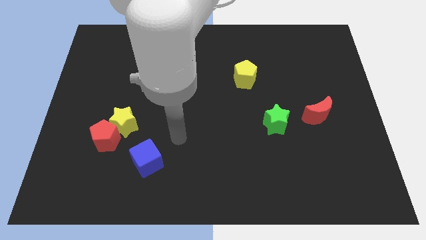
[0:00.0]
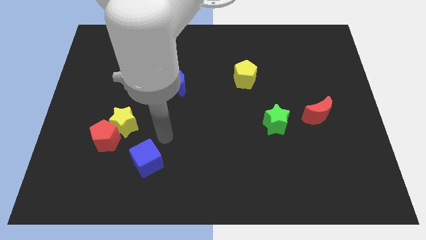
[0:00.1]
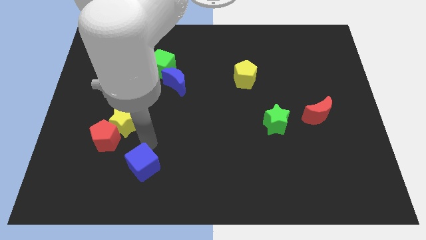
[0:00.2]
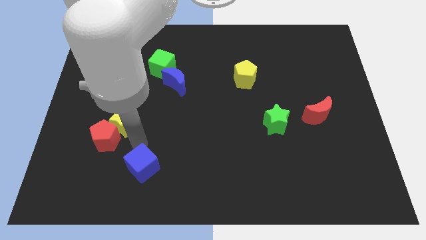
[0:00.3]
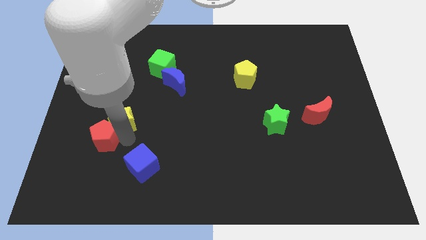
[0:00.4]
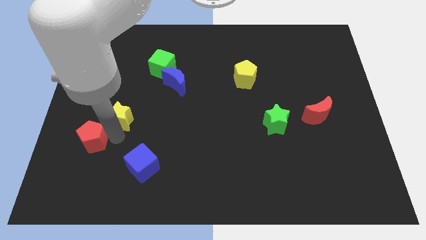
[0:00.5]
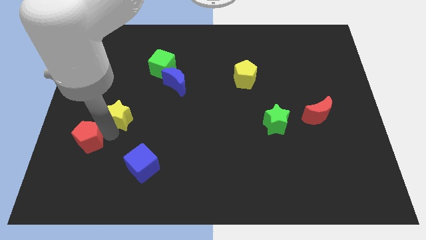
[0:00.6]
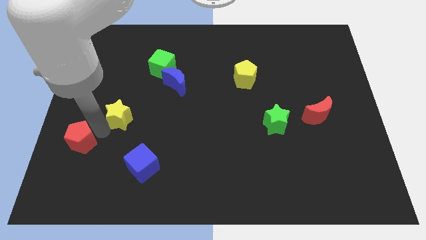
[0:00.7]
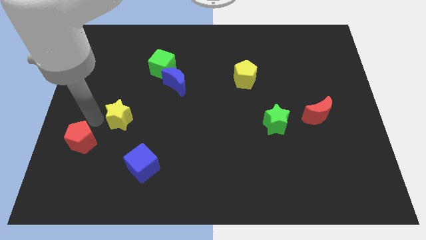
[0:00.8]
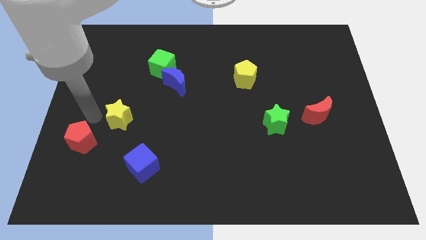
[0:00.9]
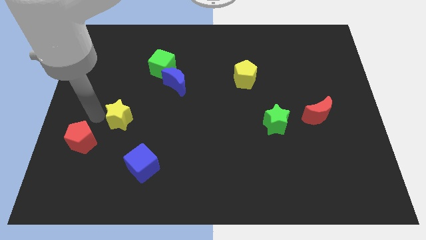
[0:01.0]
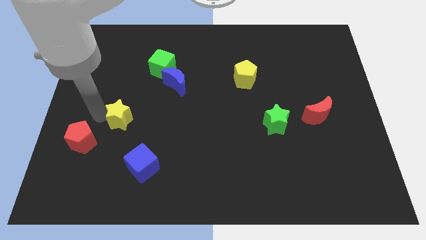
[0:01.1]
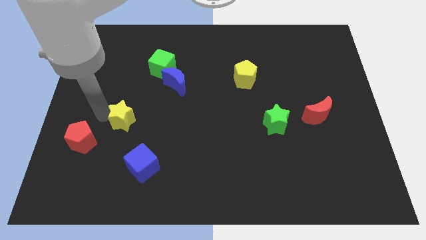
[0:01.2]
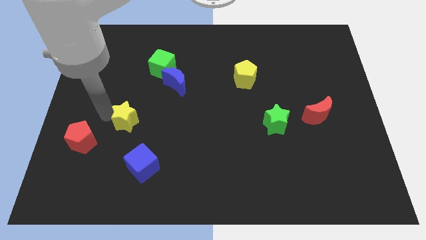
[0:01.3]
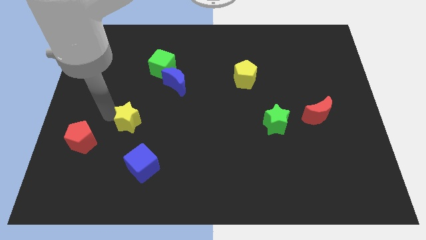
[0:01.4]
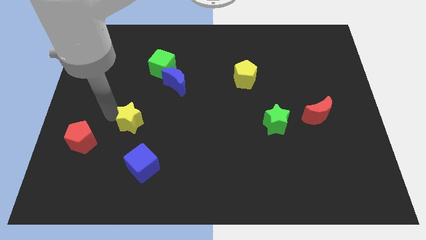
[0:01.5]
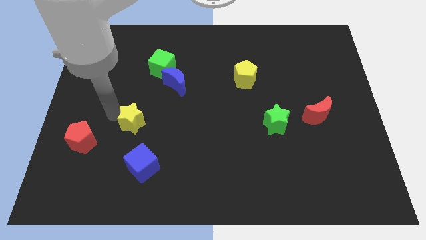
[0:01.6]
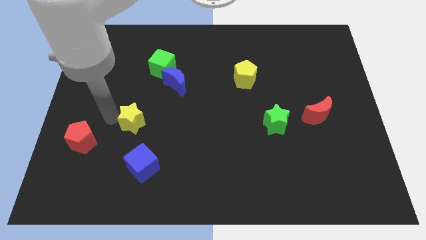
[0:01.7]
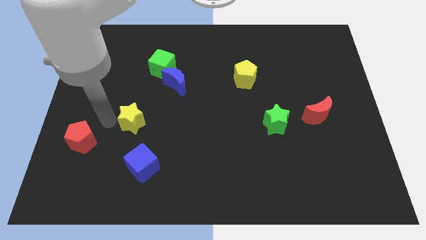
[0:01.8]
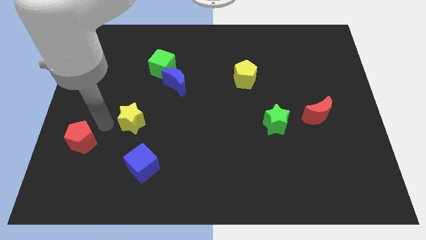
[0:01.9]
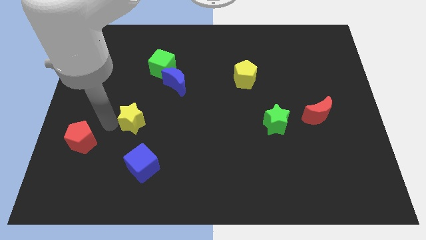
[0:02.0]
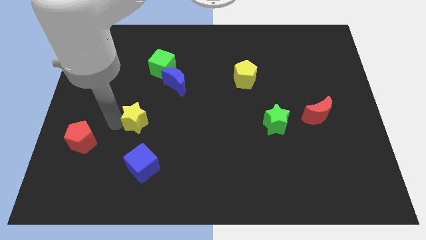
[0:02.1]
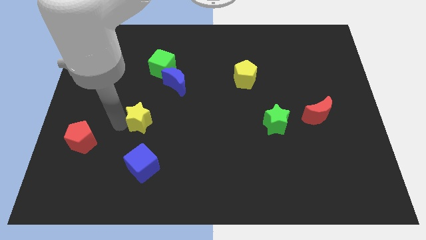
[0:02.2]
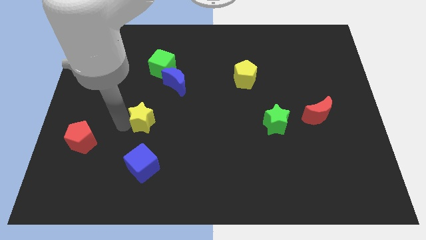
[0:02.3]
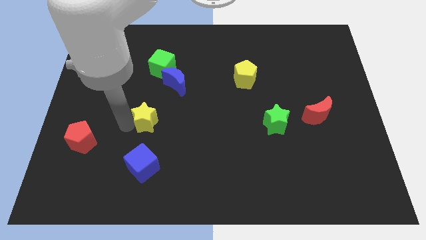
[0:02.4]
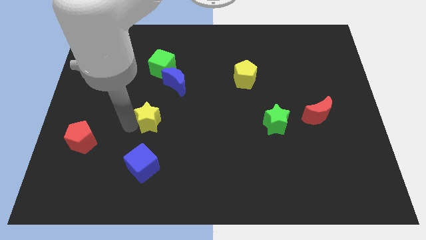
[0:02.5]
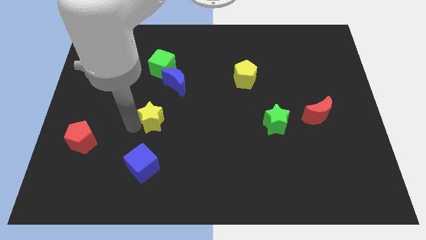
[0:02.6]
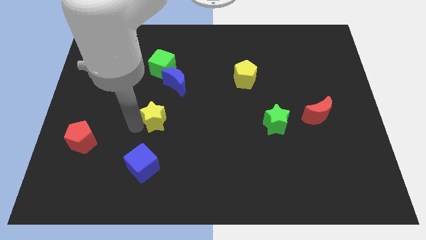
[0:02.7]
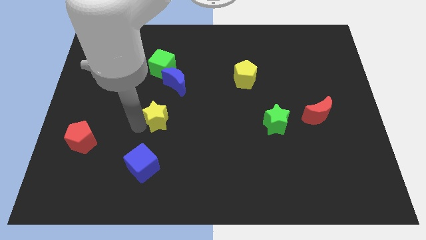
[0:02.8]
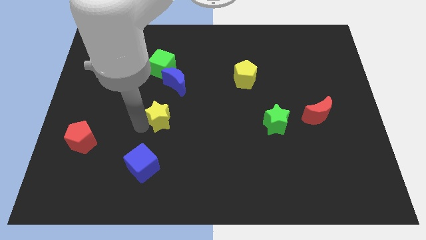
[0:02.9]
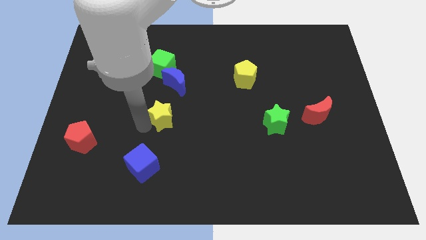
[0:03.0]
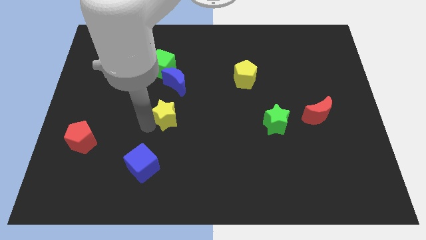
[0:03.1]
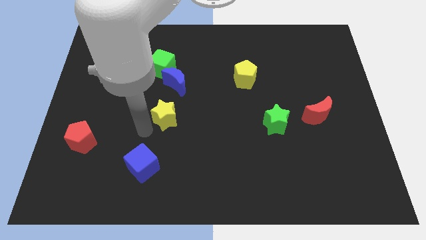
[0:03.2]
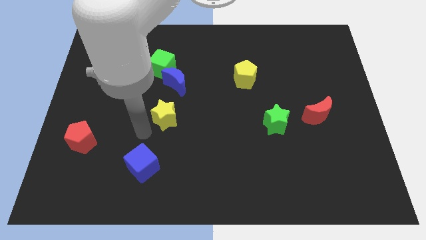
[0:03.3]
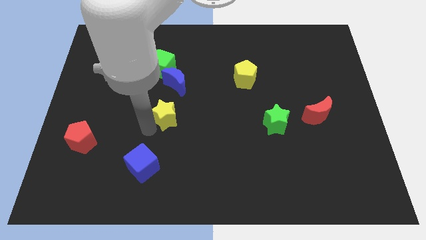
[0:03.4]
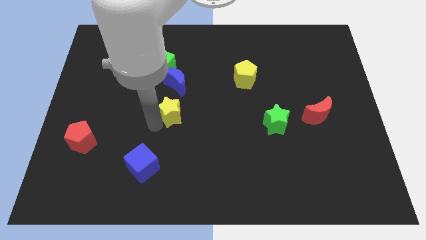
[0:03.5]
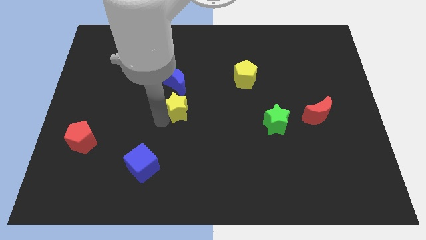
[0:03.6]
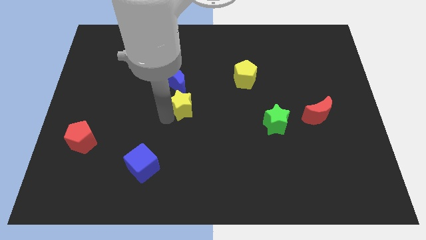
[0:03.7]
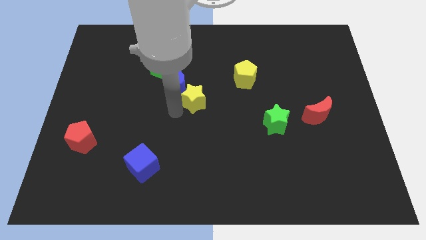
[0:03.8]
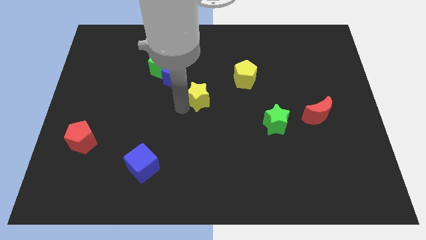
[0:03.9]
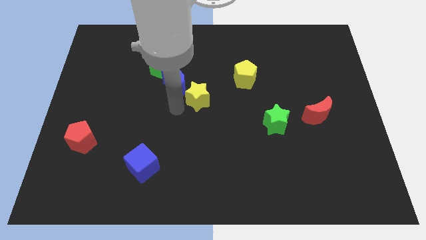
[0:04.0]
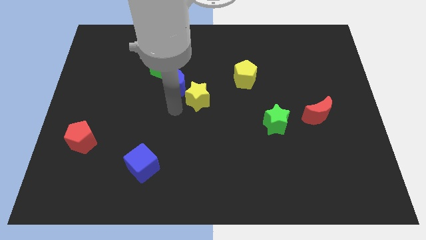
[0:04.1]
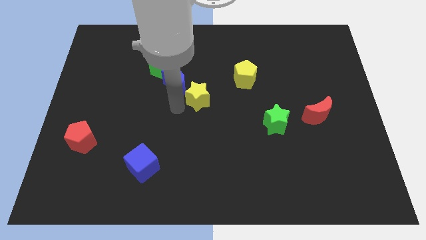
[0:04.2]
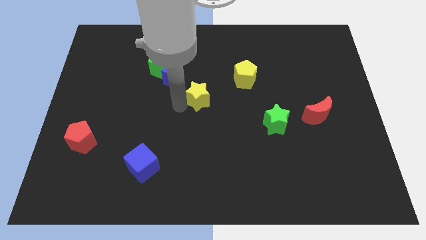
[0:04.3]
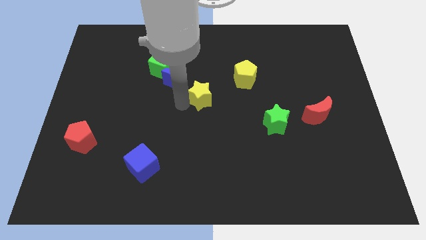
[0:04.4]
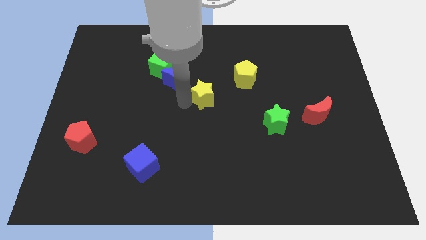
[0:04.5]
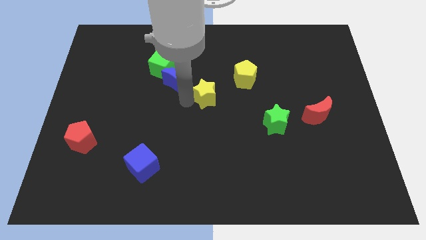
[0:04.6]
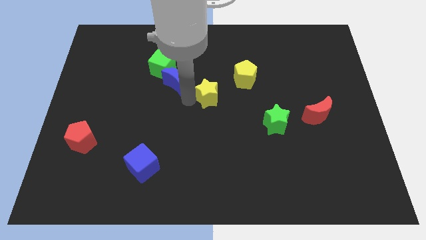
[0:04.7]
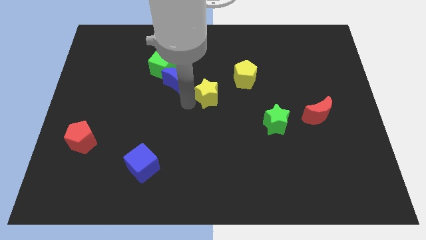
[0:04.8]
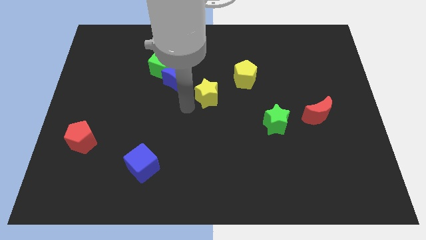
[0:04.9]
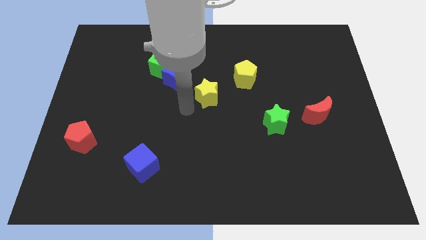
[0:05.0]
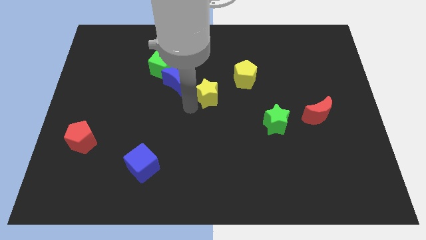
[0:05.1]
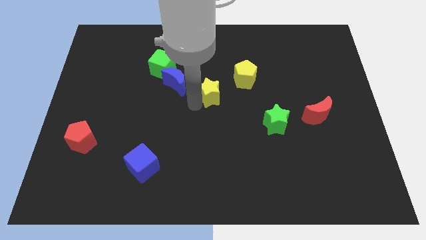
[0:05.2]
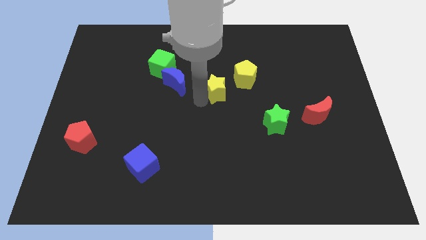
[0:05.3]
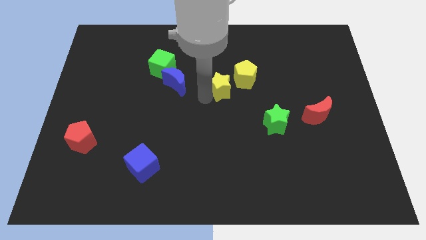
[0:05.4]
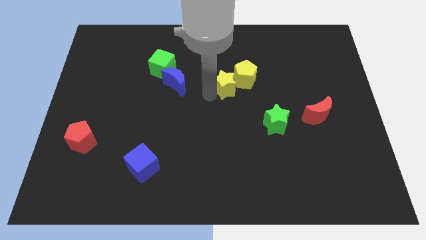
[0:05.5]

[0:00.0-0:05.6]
push the yellow star to the yellow pentagon

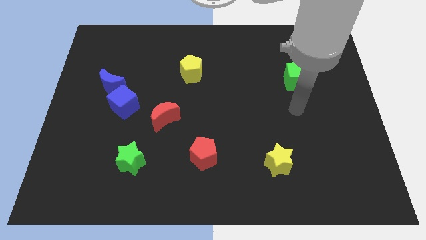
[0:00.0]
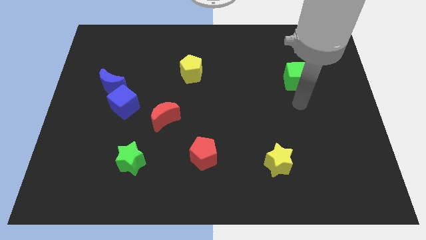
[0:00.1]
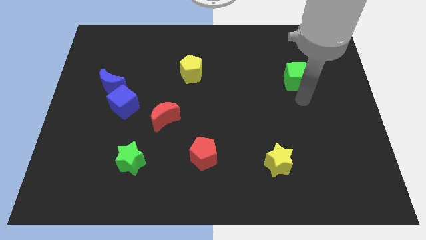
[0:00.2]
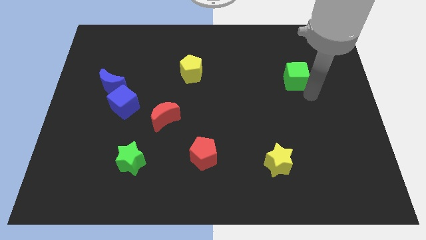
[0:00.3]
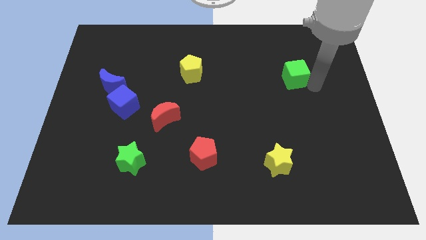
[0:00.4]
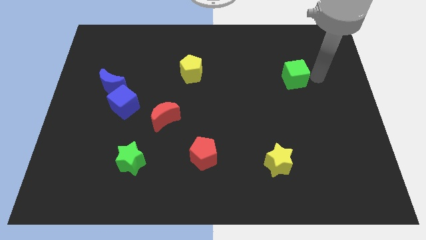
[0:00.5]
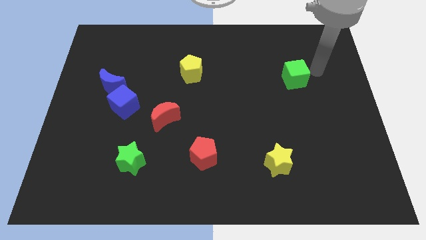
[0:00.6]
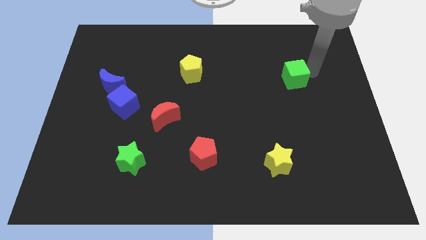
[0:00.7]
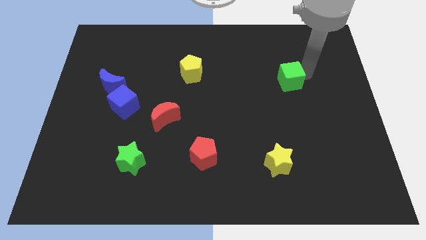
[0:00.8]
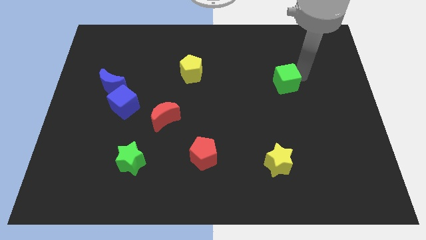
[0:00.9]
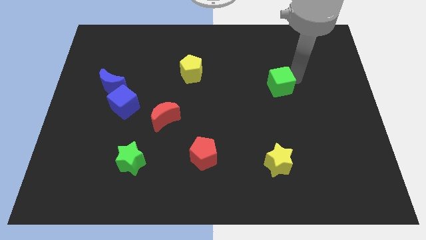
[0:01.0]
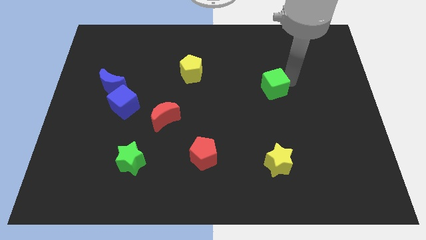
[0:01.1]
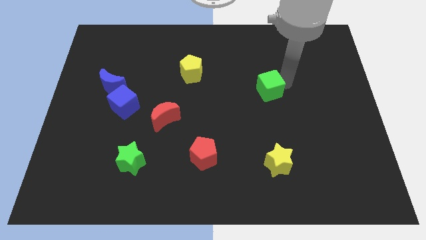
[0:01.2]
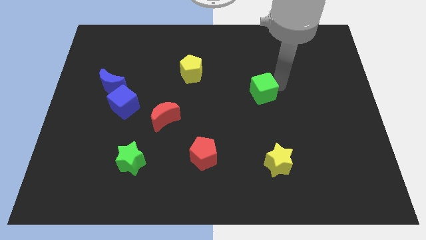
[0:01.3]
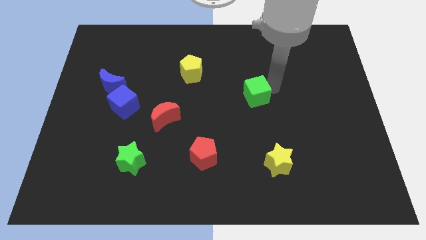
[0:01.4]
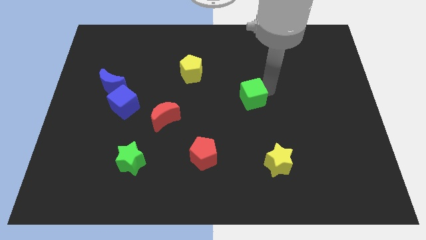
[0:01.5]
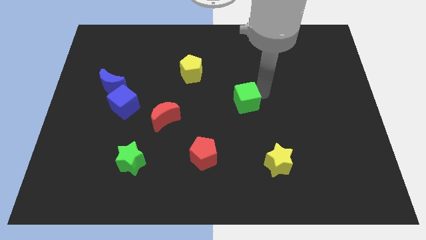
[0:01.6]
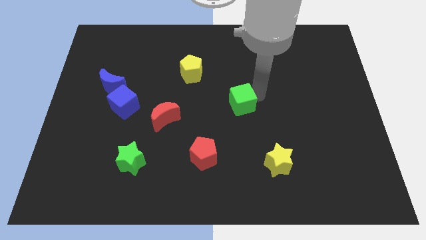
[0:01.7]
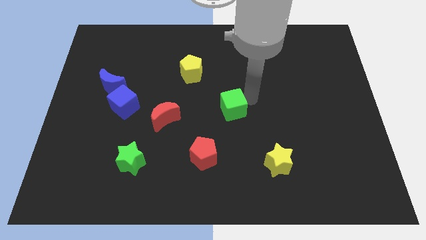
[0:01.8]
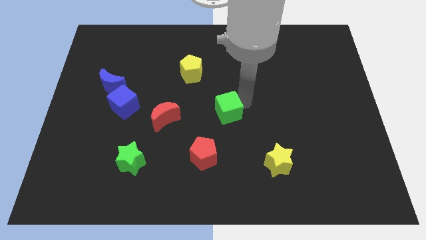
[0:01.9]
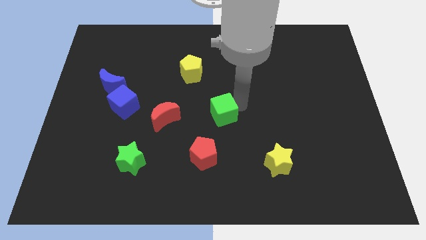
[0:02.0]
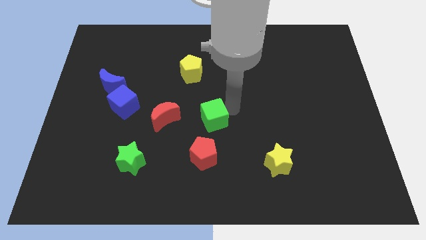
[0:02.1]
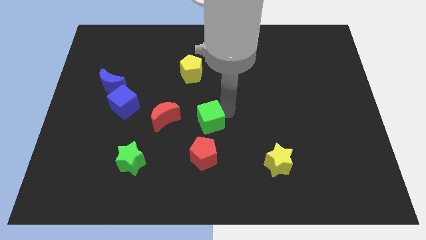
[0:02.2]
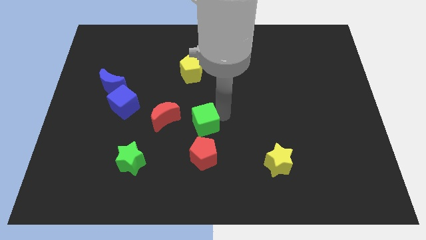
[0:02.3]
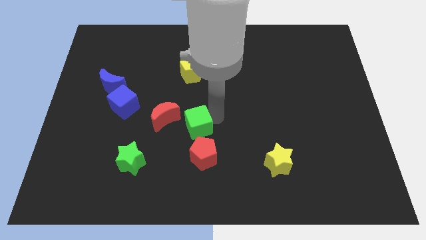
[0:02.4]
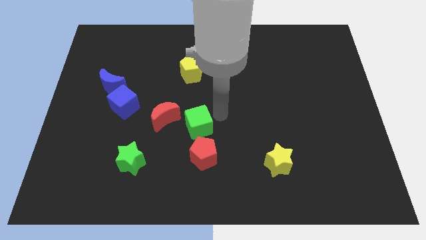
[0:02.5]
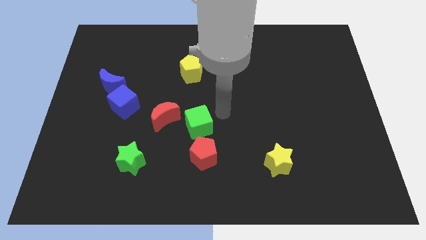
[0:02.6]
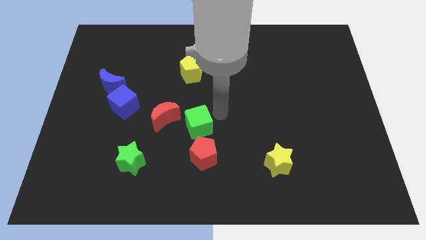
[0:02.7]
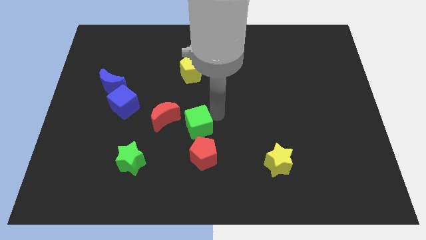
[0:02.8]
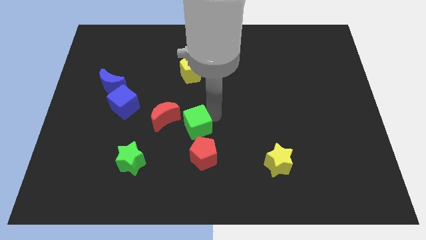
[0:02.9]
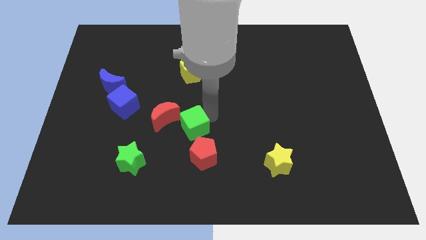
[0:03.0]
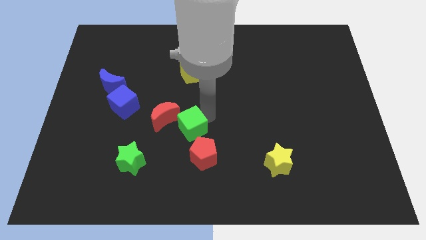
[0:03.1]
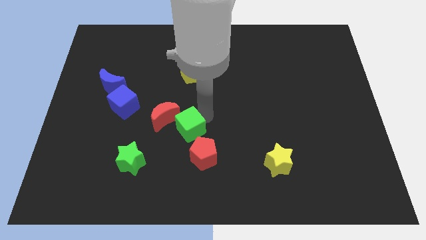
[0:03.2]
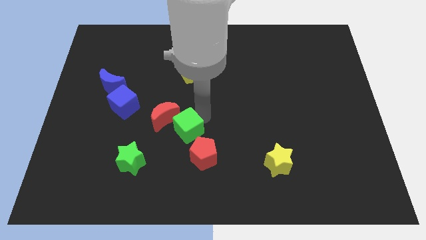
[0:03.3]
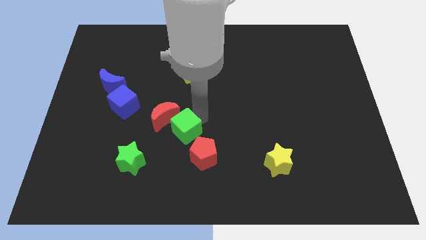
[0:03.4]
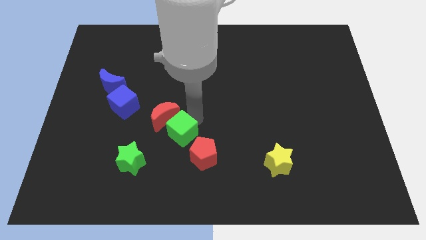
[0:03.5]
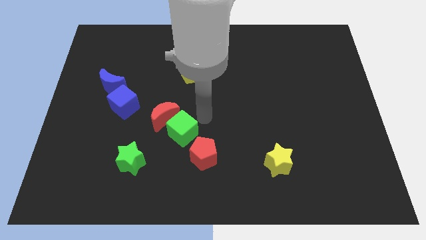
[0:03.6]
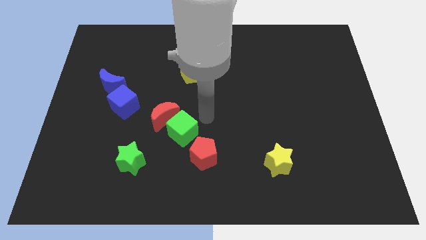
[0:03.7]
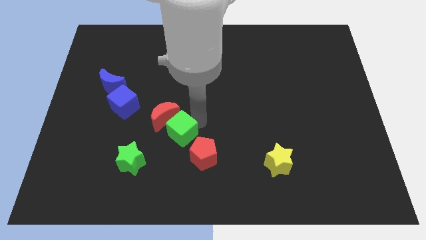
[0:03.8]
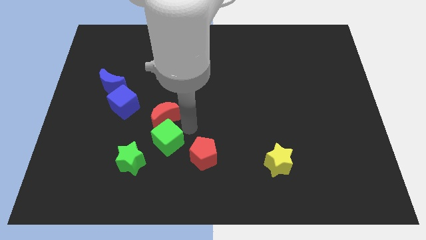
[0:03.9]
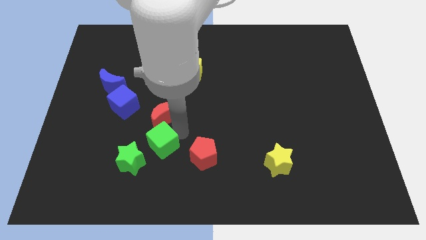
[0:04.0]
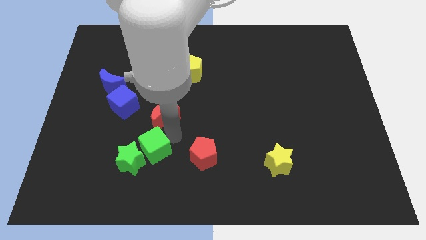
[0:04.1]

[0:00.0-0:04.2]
move the green cube close to the green star
